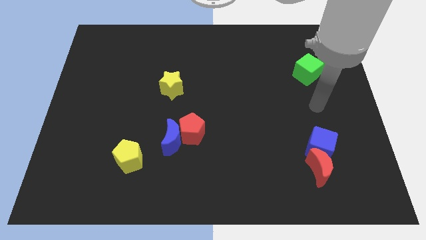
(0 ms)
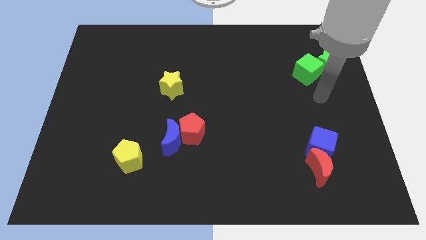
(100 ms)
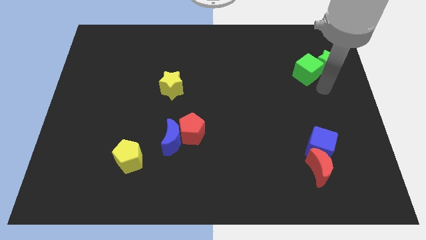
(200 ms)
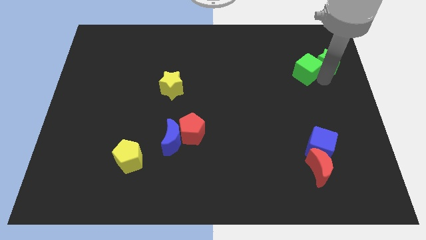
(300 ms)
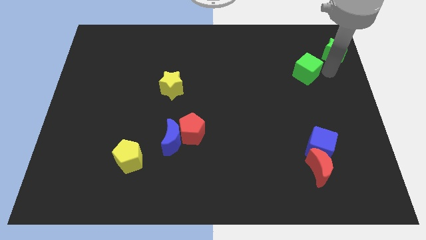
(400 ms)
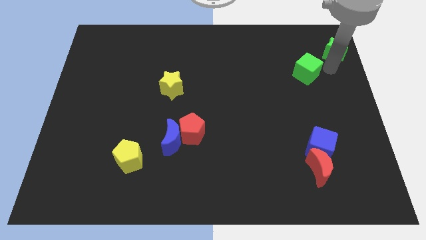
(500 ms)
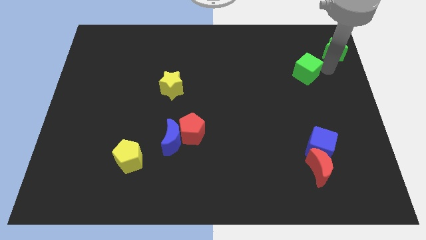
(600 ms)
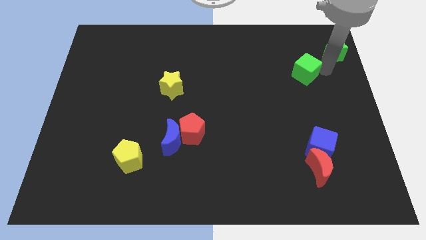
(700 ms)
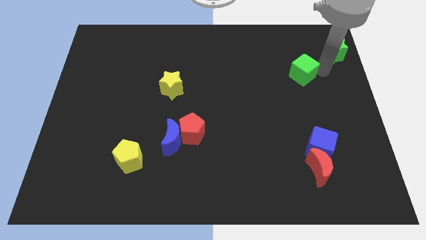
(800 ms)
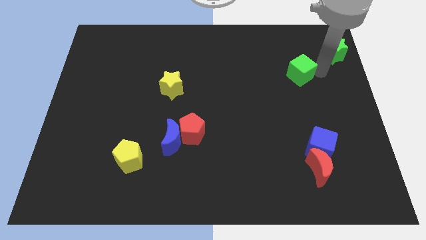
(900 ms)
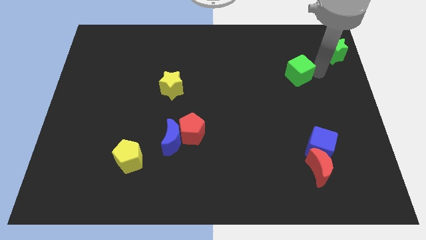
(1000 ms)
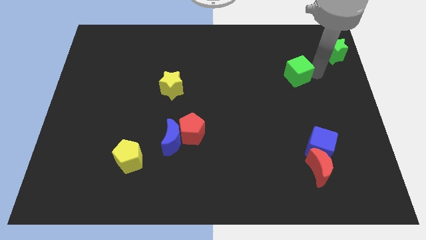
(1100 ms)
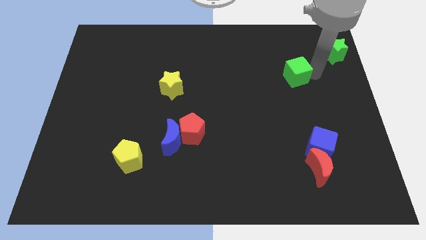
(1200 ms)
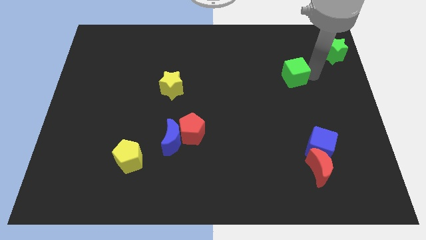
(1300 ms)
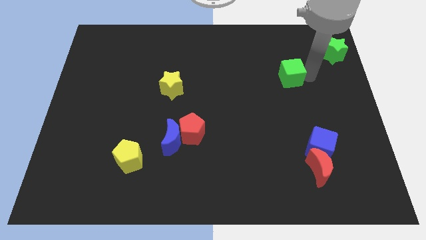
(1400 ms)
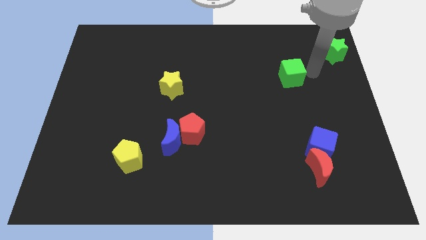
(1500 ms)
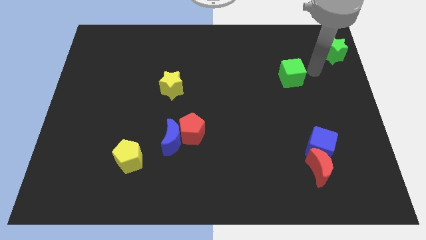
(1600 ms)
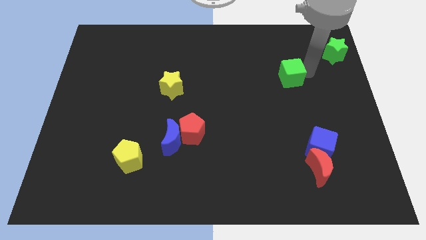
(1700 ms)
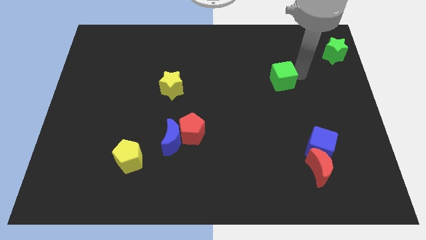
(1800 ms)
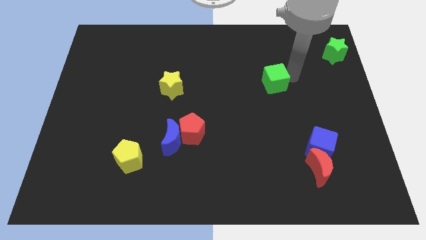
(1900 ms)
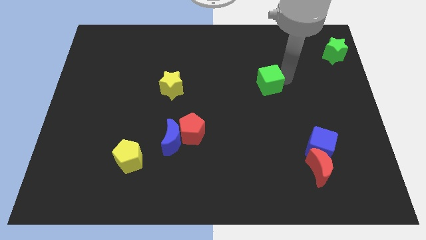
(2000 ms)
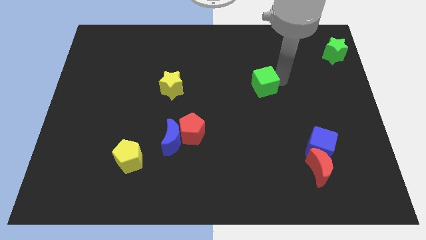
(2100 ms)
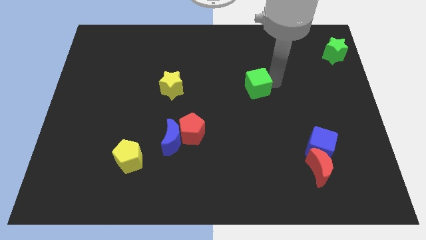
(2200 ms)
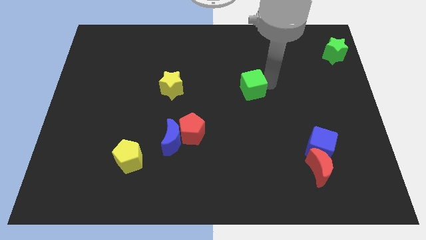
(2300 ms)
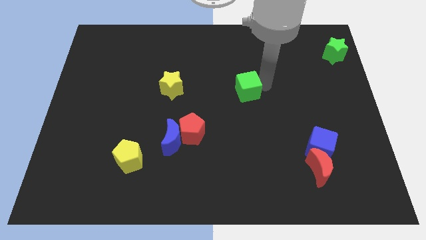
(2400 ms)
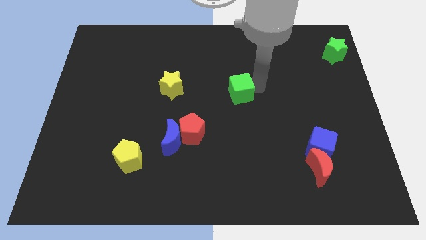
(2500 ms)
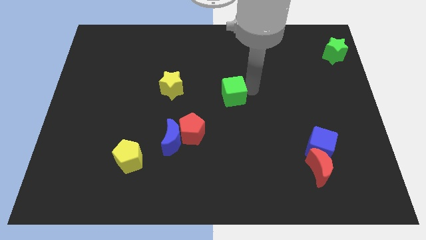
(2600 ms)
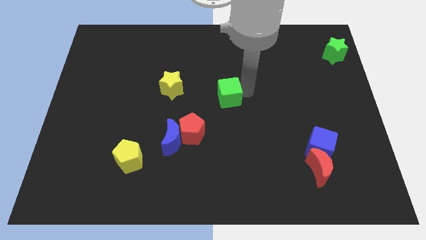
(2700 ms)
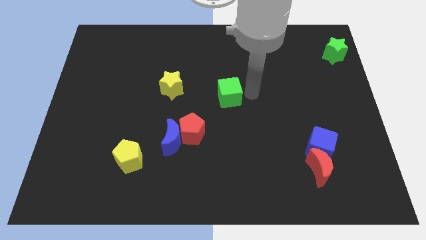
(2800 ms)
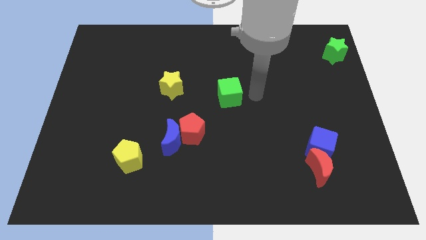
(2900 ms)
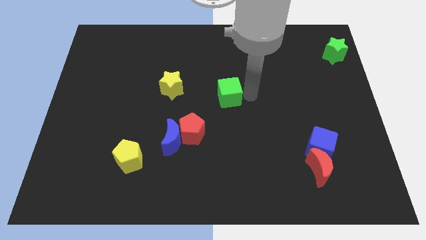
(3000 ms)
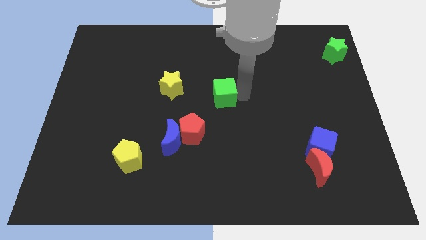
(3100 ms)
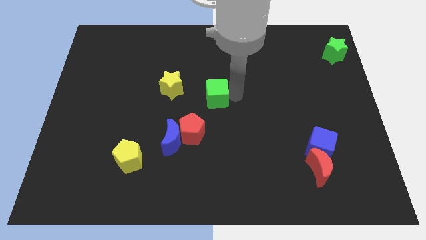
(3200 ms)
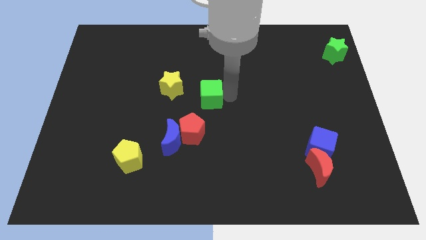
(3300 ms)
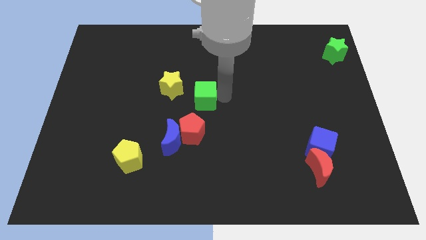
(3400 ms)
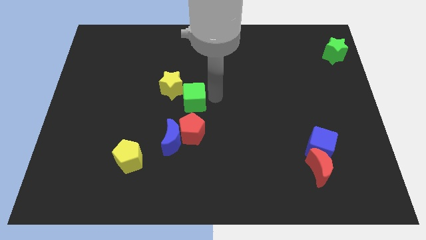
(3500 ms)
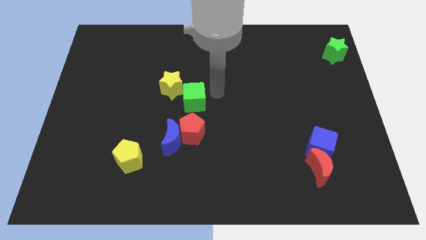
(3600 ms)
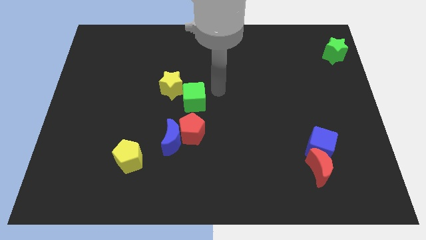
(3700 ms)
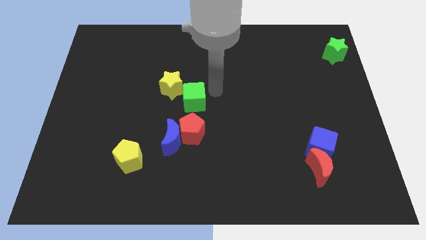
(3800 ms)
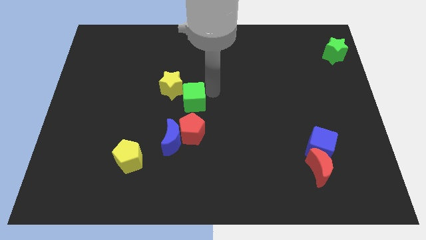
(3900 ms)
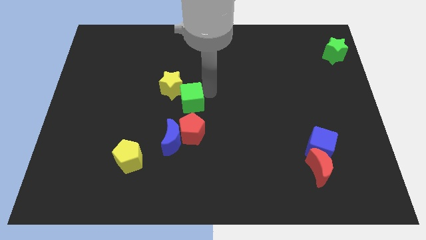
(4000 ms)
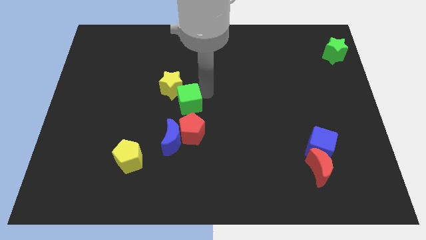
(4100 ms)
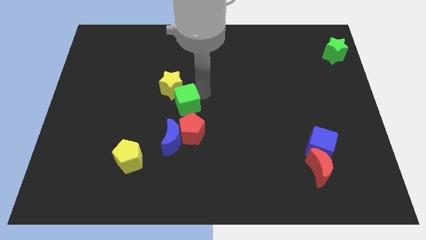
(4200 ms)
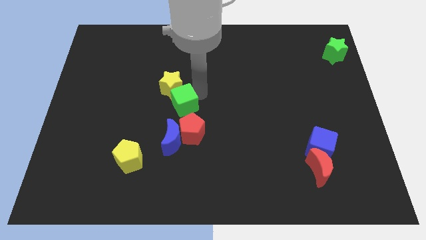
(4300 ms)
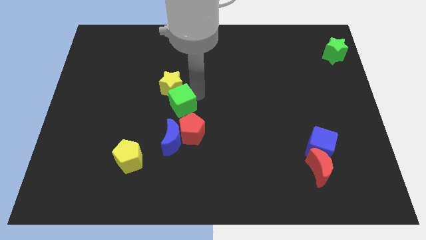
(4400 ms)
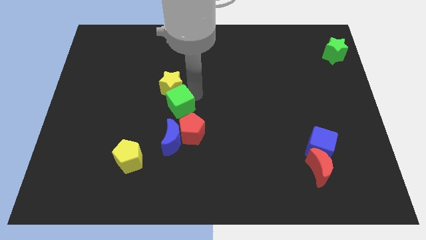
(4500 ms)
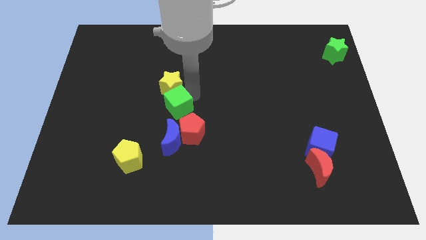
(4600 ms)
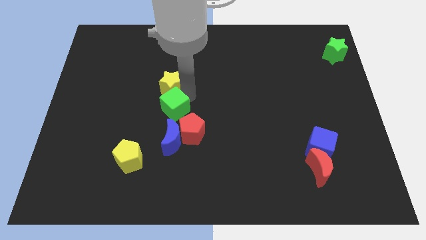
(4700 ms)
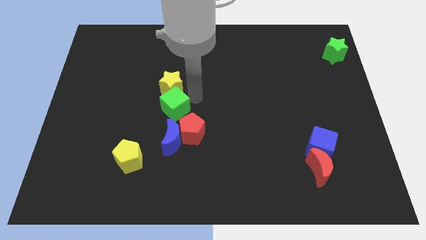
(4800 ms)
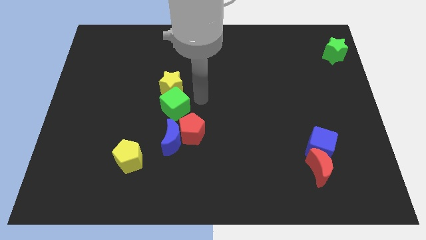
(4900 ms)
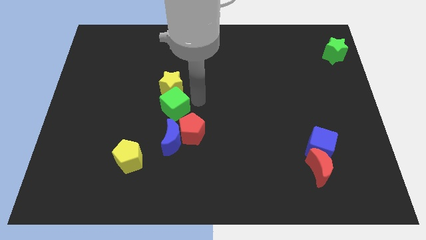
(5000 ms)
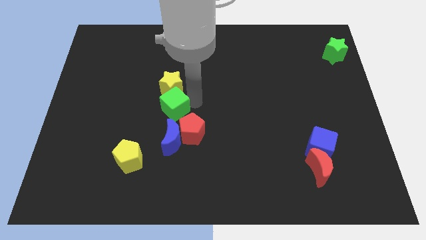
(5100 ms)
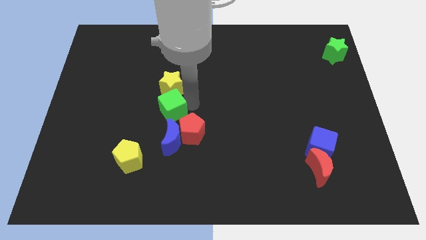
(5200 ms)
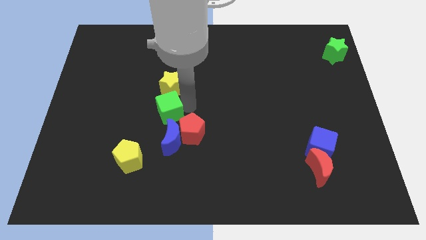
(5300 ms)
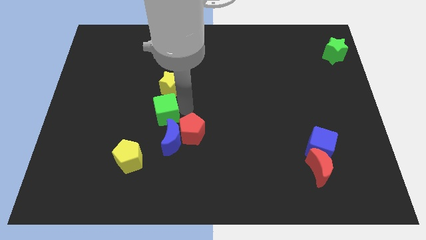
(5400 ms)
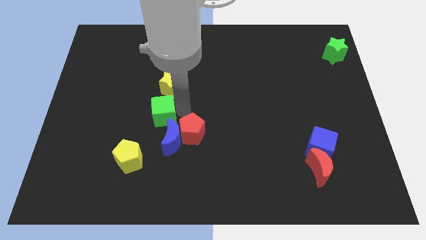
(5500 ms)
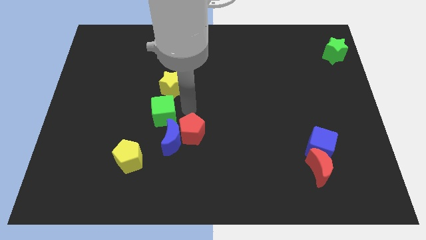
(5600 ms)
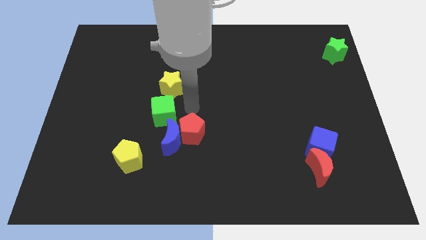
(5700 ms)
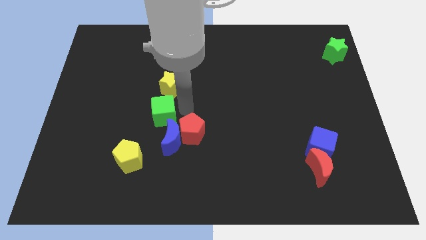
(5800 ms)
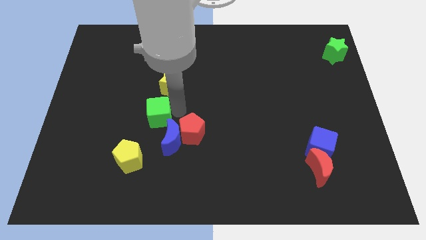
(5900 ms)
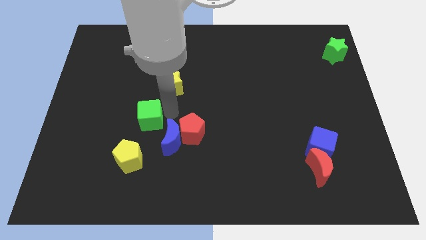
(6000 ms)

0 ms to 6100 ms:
push the green cube above the yellow pentagon

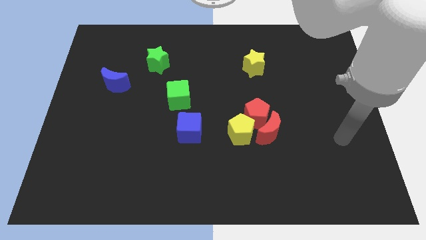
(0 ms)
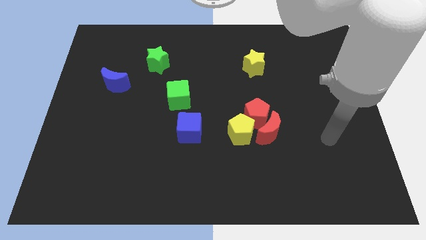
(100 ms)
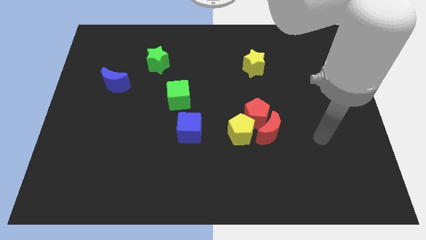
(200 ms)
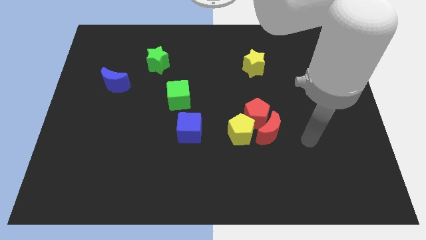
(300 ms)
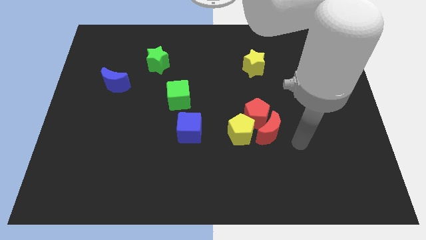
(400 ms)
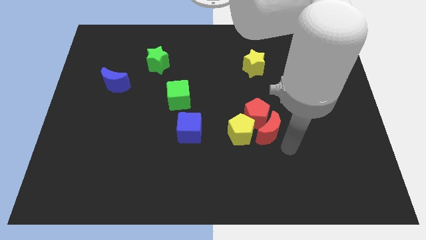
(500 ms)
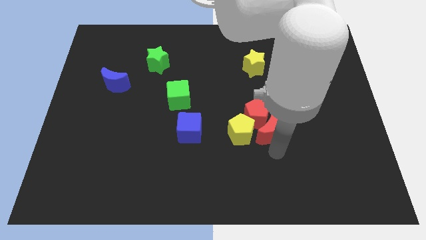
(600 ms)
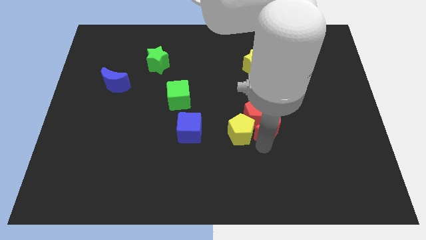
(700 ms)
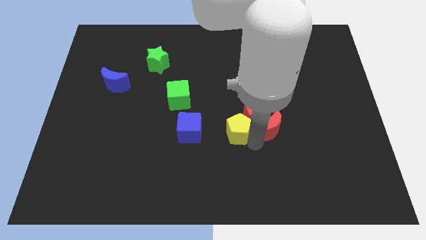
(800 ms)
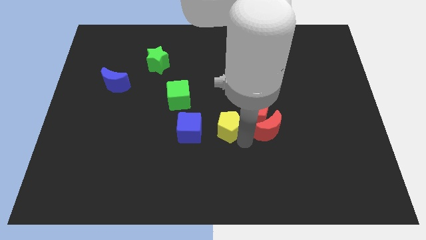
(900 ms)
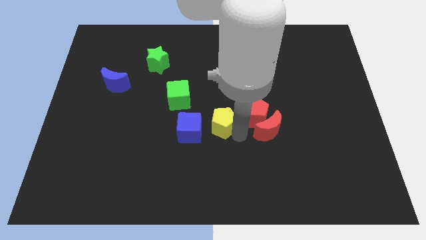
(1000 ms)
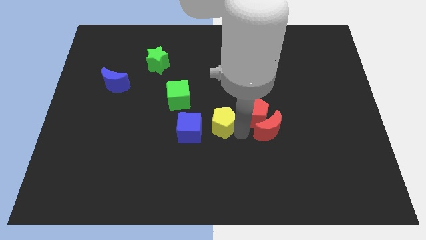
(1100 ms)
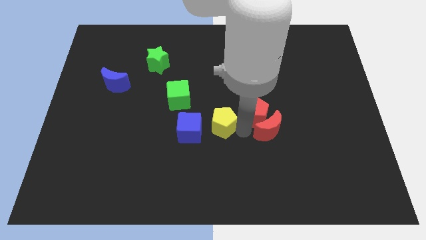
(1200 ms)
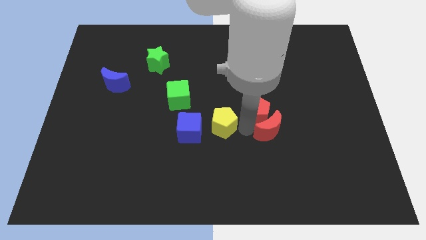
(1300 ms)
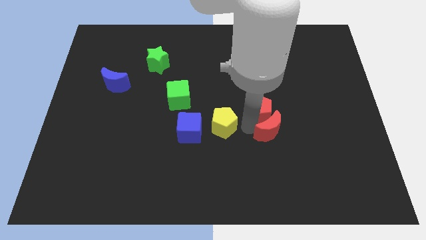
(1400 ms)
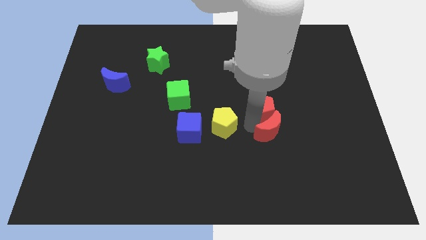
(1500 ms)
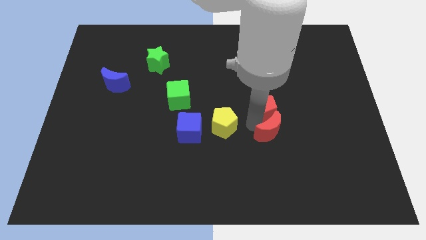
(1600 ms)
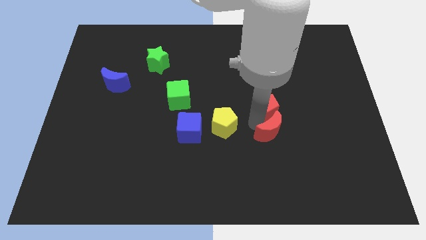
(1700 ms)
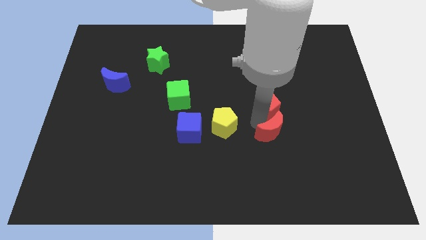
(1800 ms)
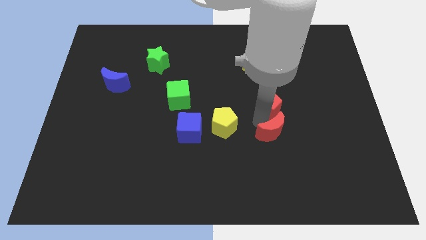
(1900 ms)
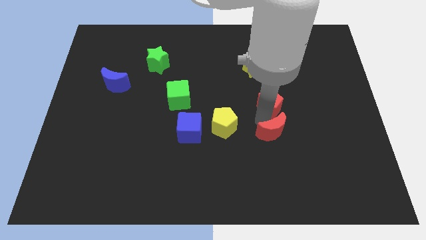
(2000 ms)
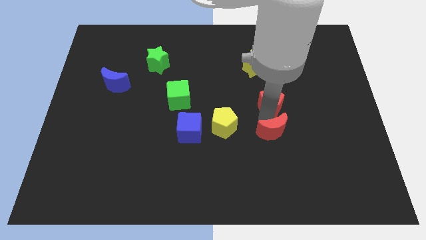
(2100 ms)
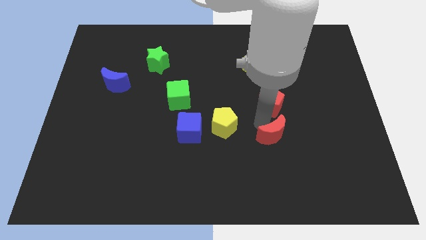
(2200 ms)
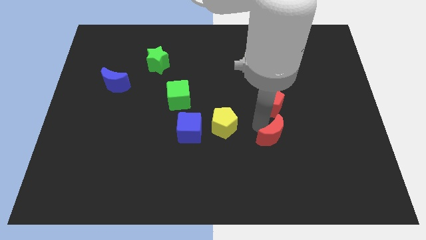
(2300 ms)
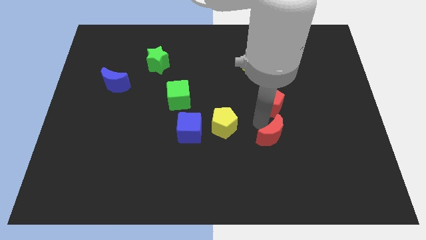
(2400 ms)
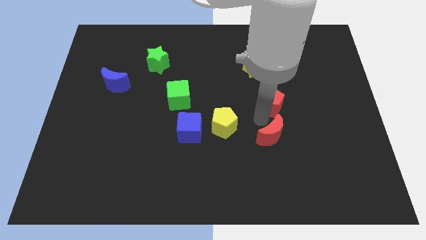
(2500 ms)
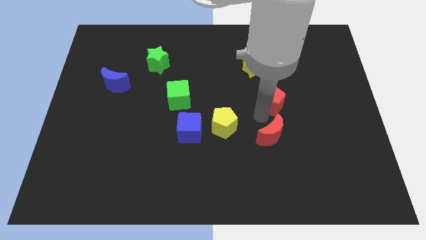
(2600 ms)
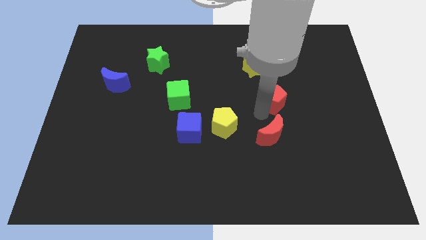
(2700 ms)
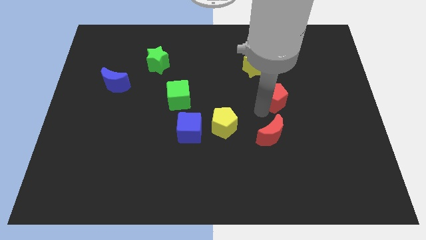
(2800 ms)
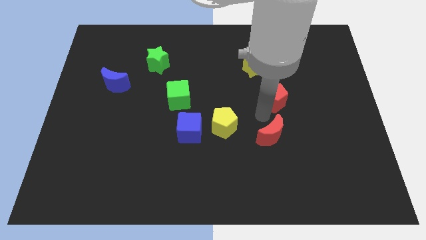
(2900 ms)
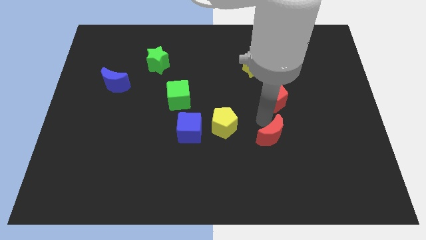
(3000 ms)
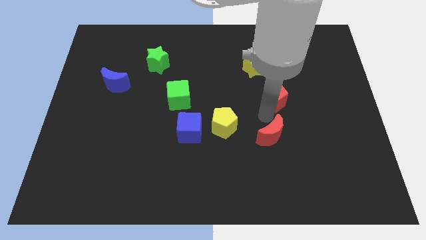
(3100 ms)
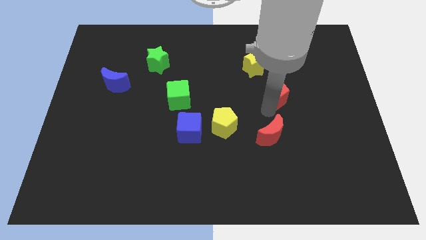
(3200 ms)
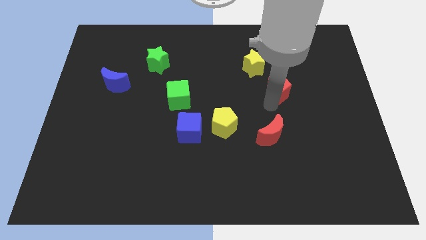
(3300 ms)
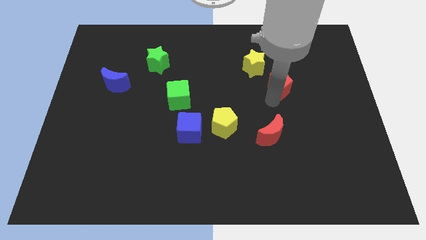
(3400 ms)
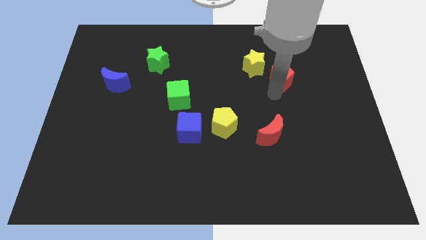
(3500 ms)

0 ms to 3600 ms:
move the red pentagon to the right of the yellow star
